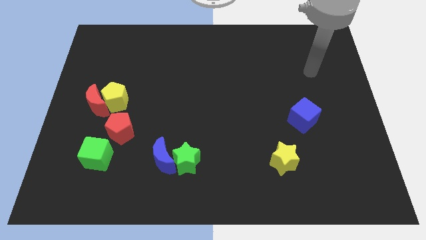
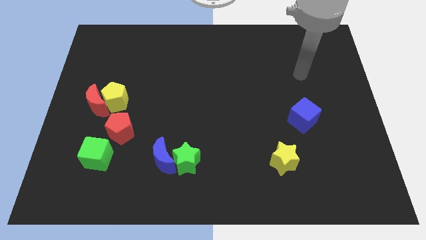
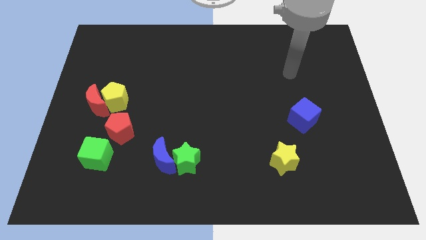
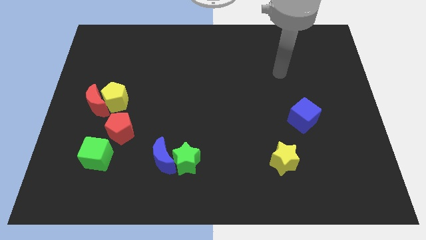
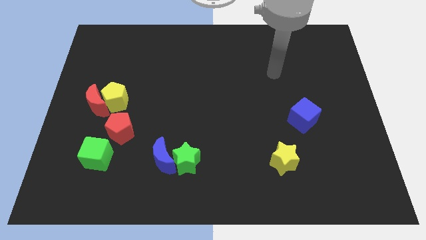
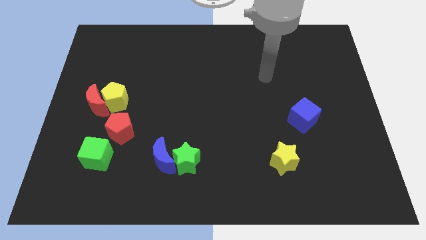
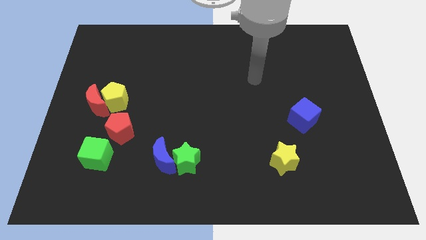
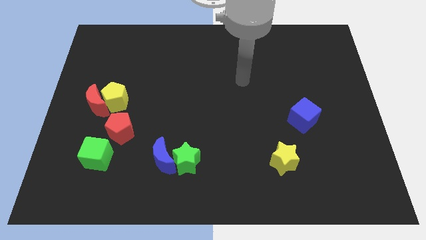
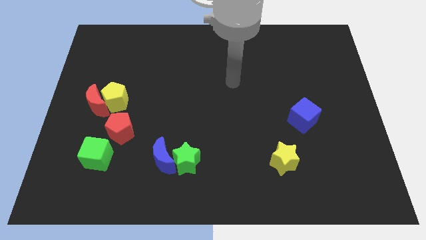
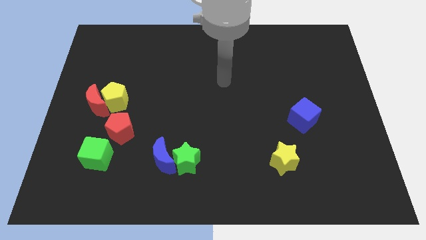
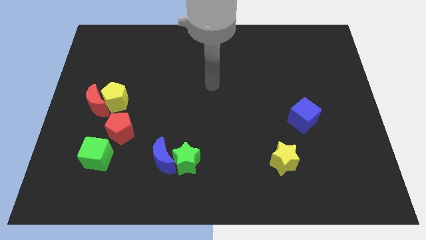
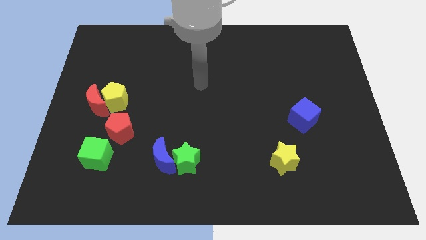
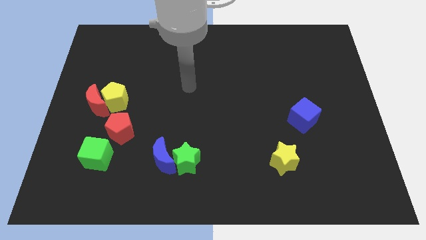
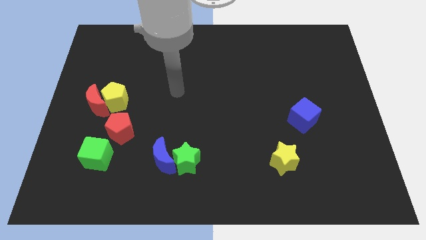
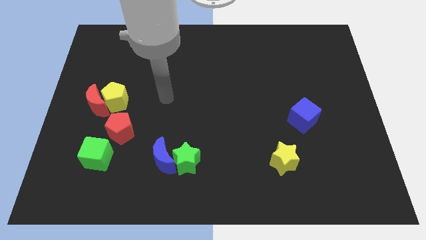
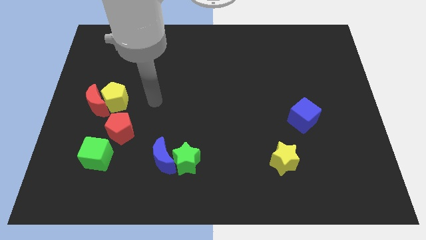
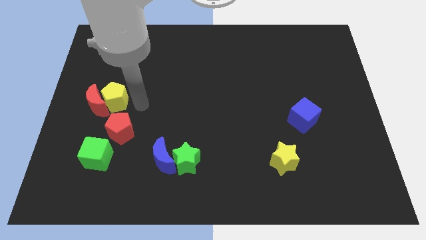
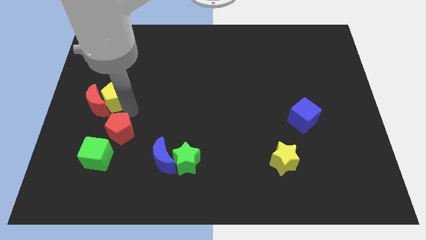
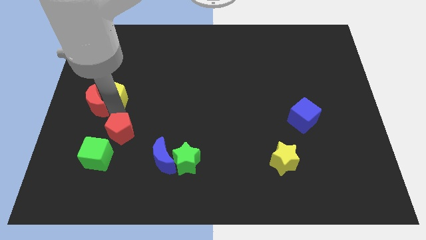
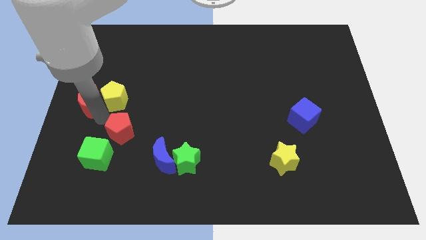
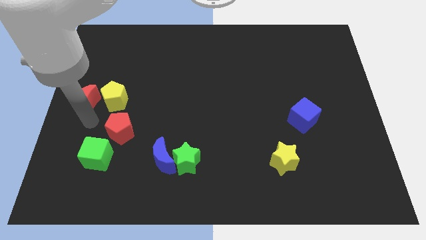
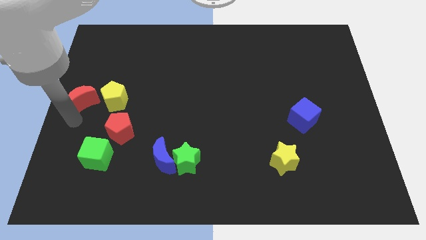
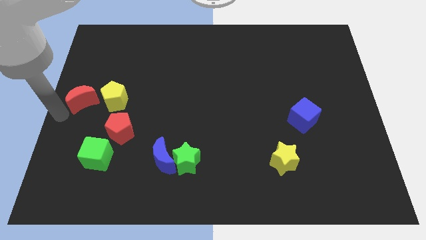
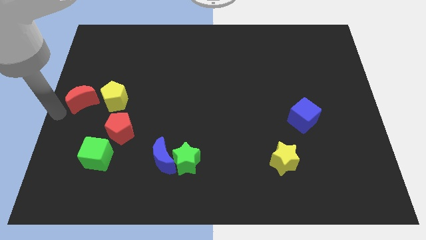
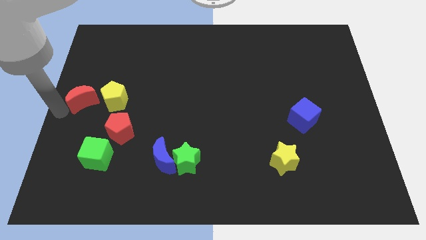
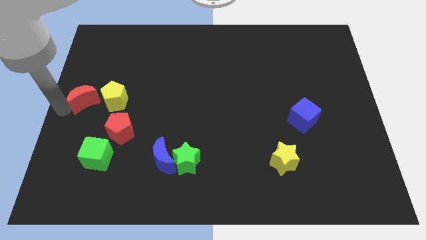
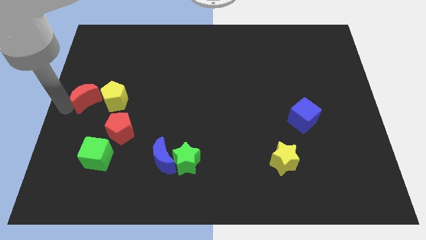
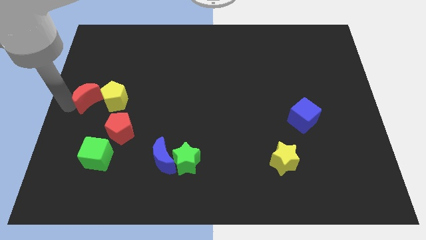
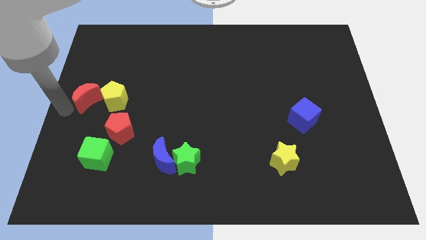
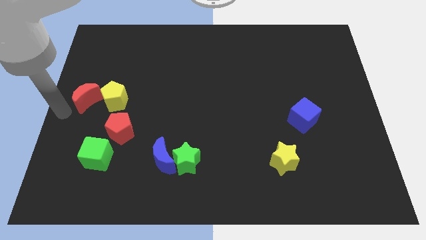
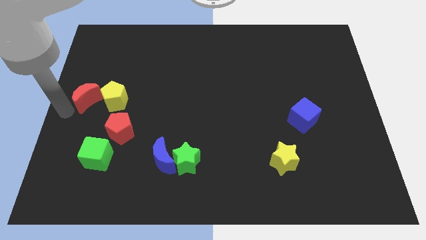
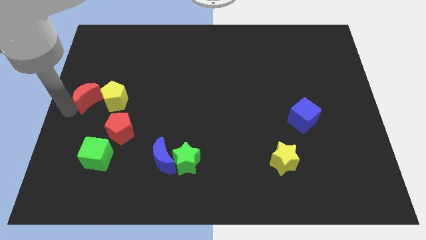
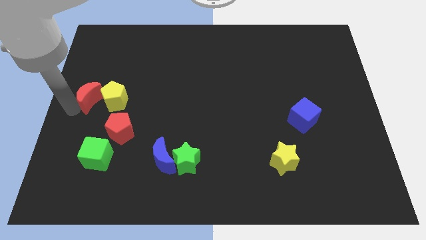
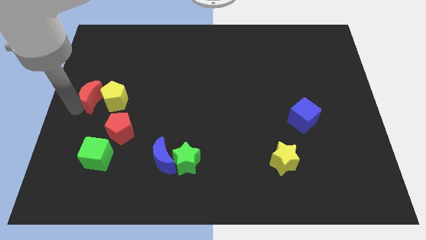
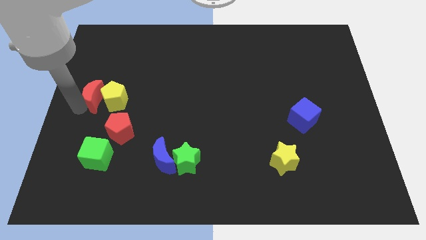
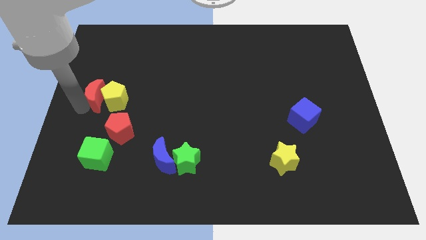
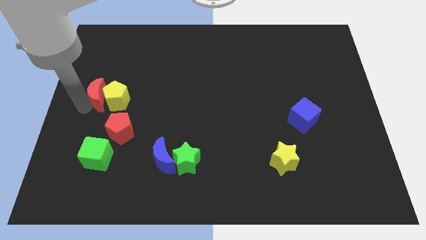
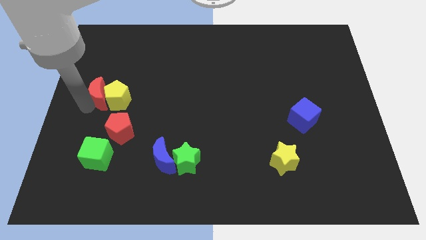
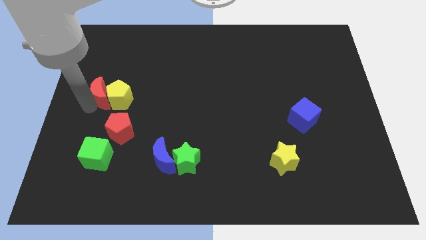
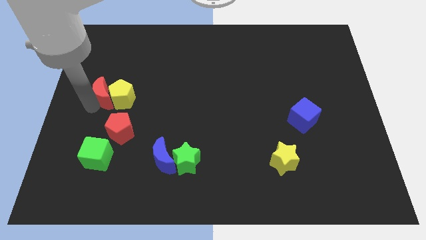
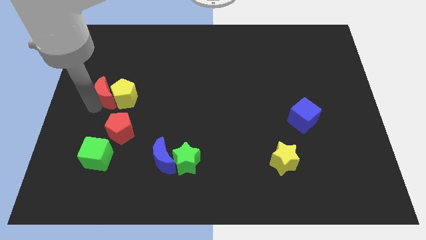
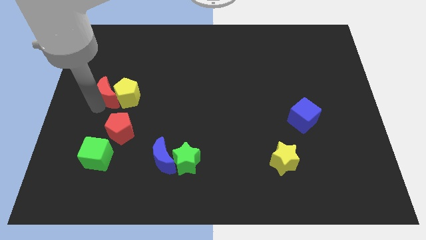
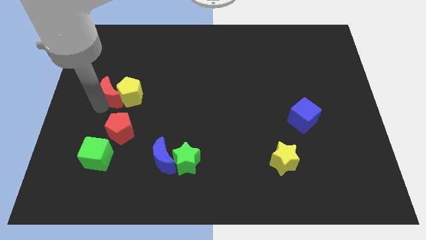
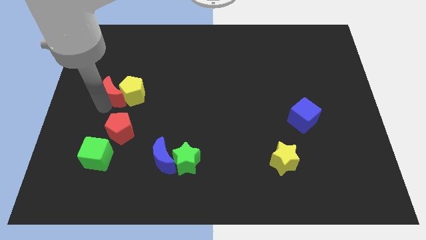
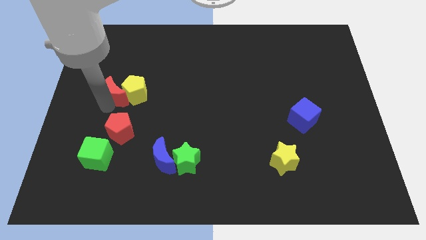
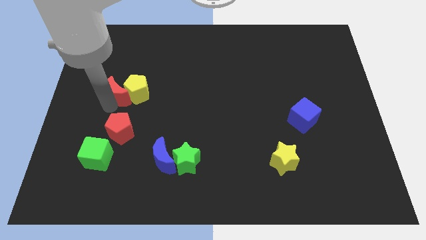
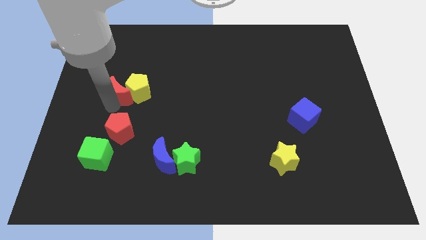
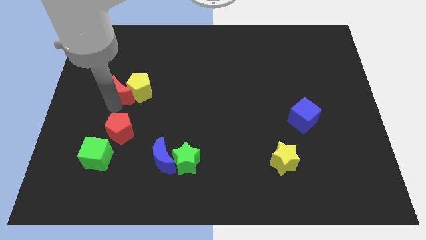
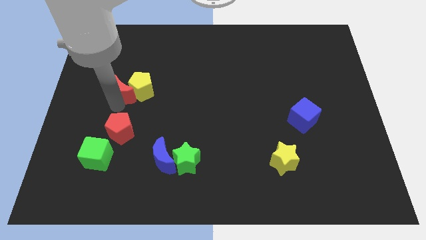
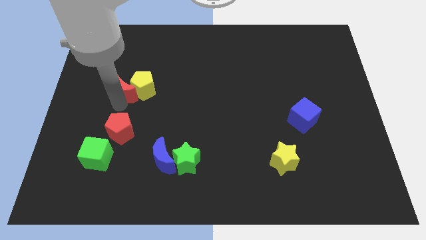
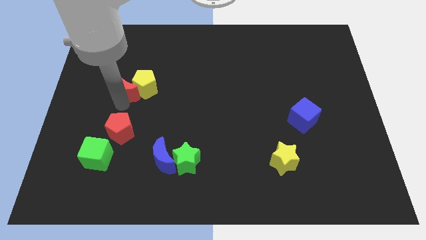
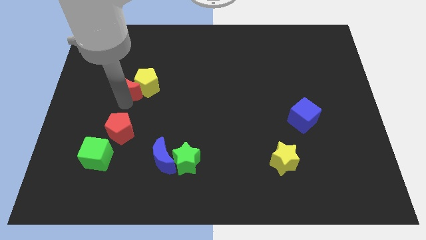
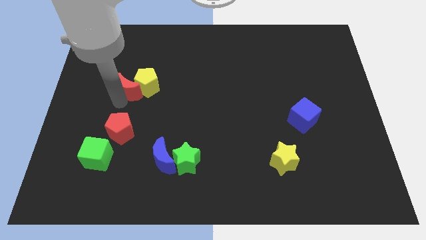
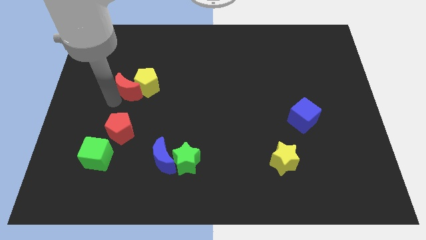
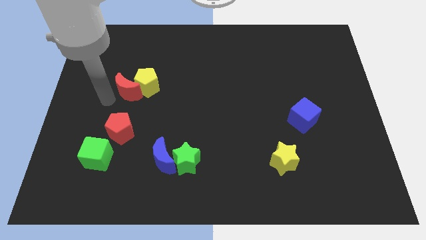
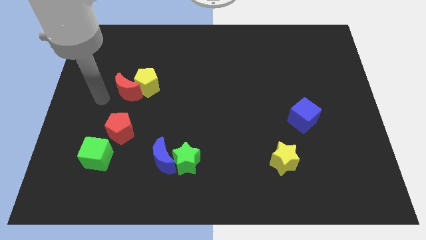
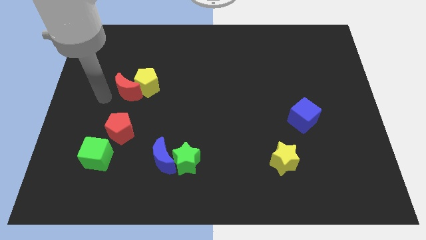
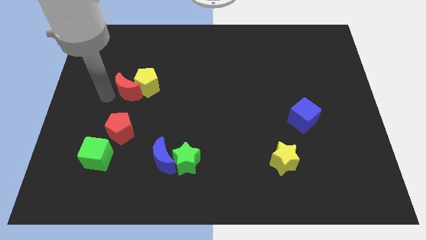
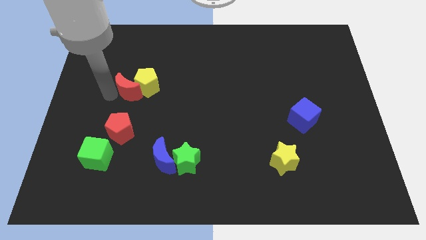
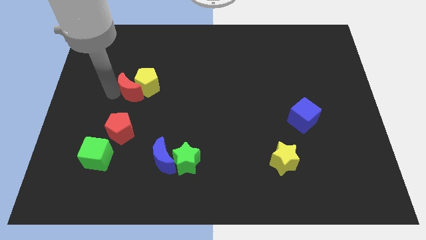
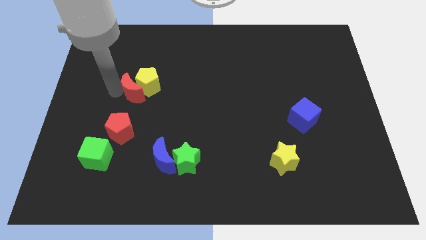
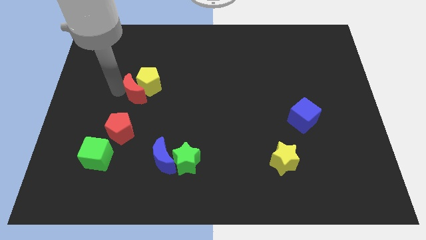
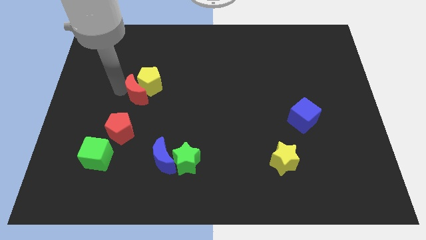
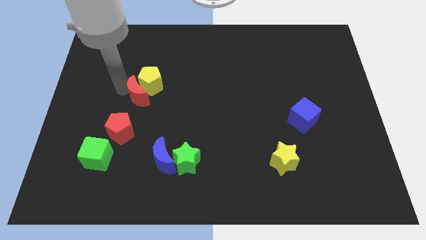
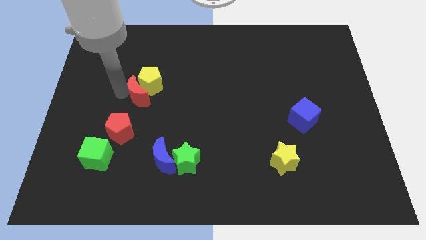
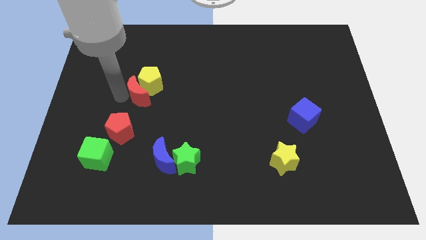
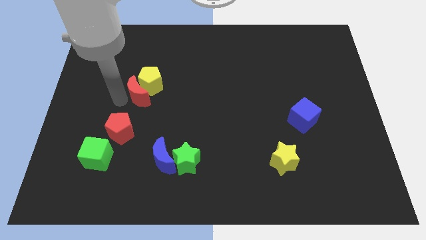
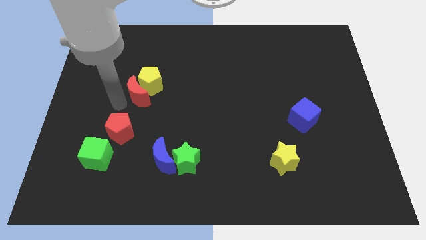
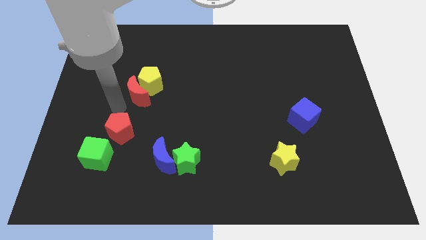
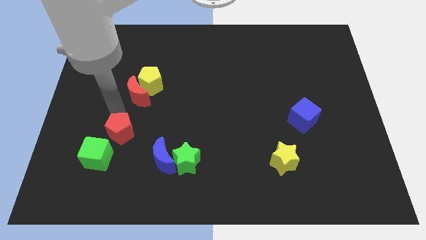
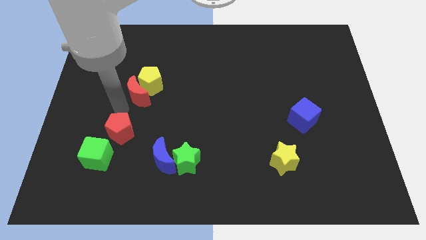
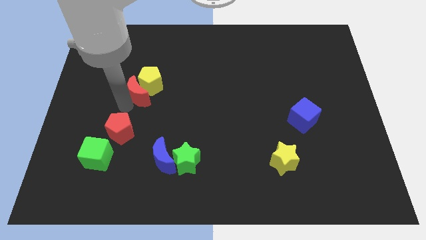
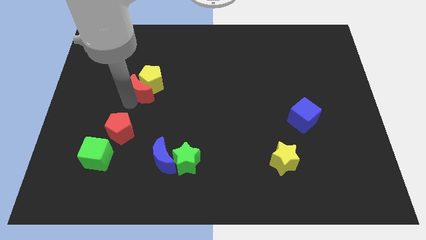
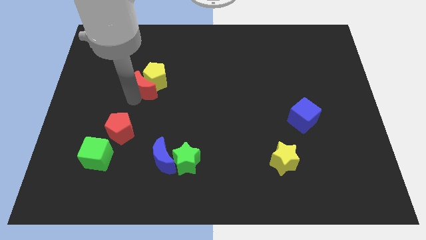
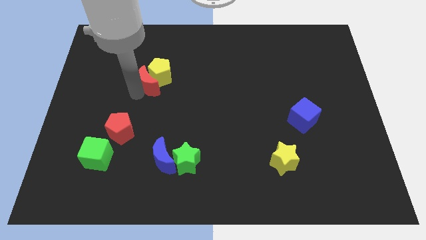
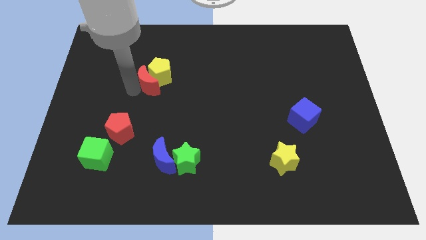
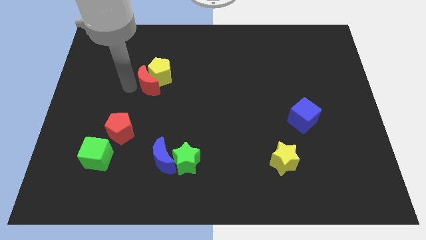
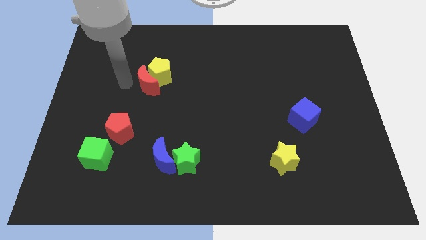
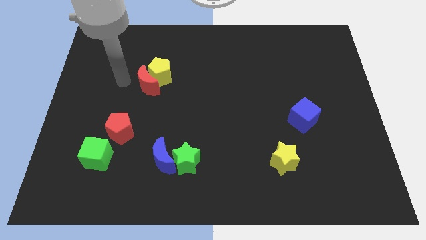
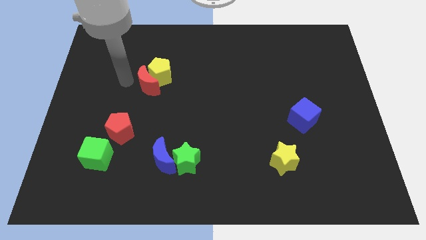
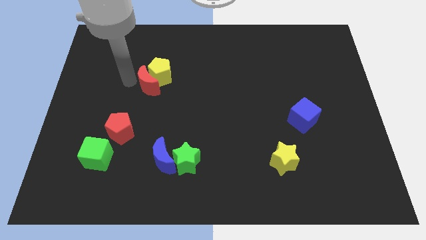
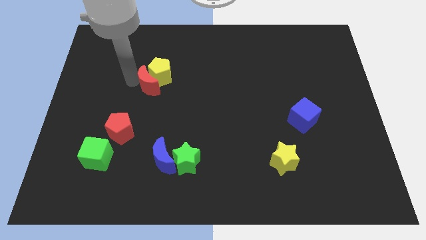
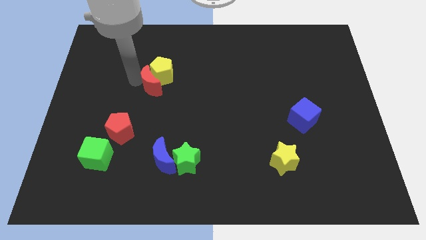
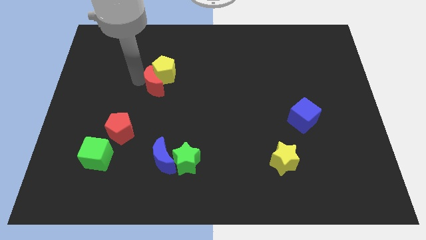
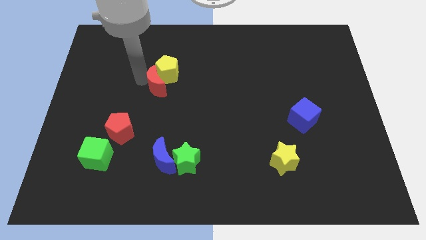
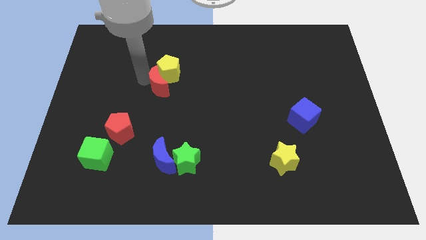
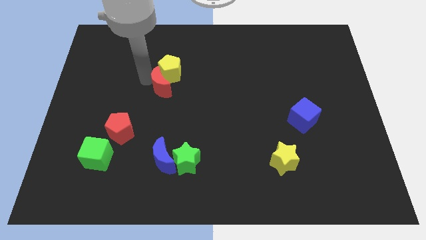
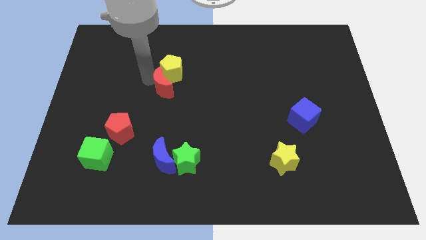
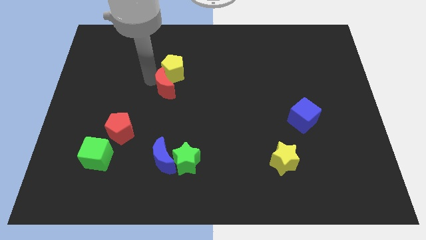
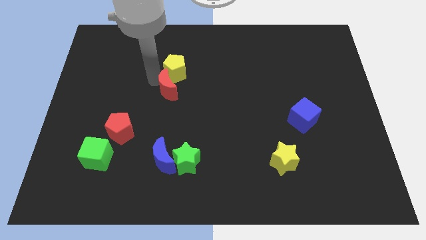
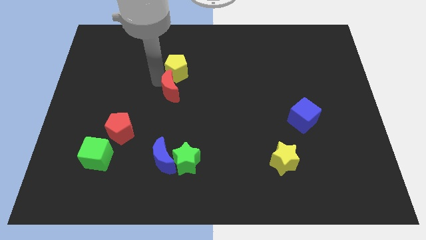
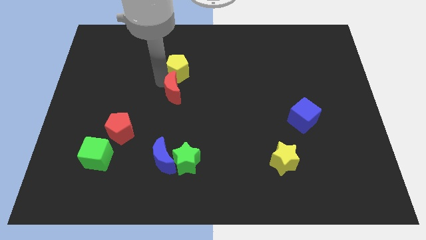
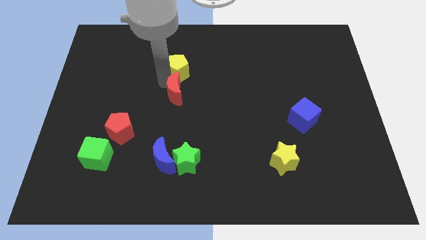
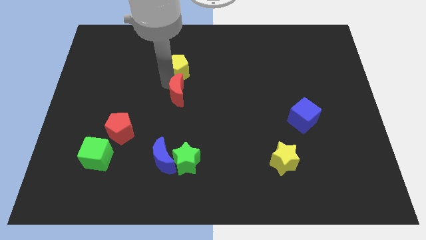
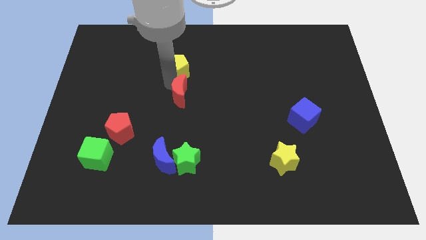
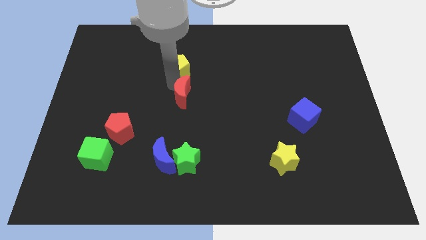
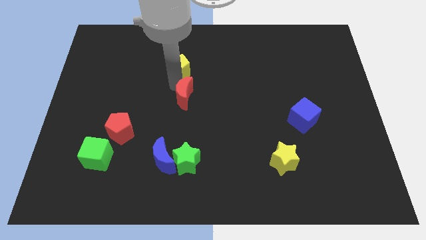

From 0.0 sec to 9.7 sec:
push the red moon right
